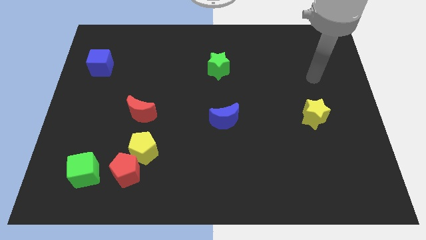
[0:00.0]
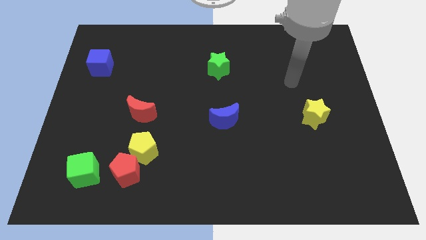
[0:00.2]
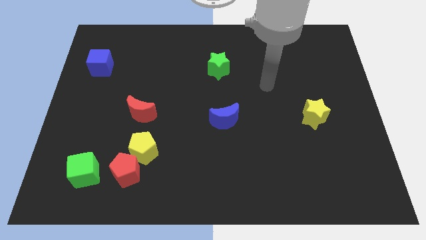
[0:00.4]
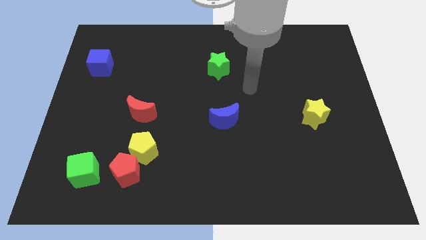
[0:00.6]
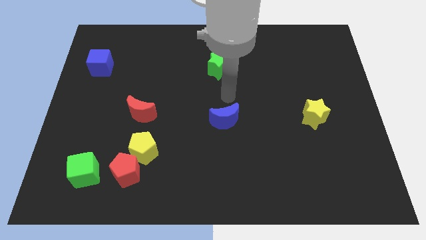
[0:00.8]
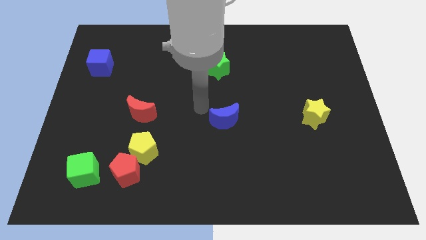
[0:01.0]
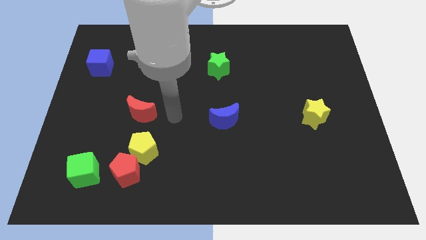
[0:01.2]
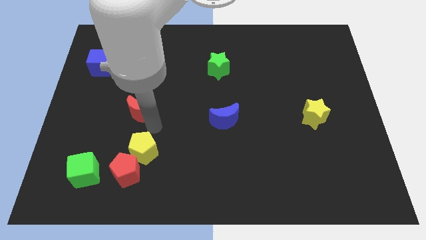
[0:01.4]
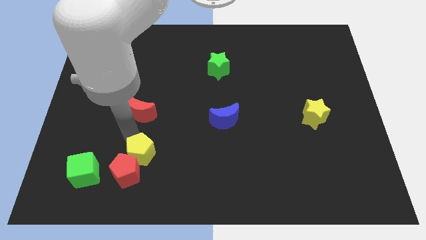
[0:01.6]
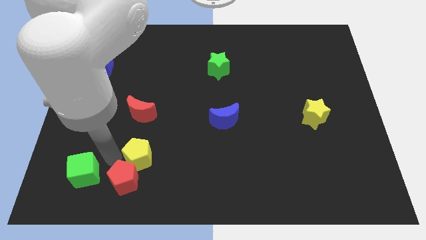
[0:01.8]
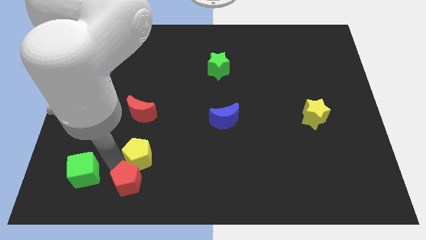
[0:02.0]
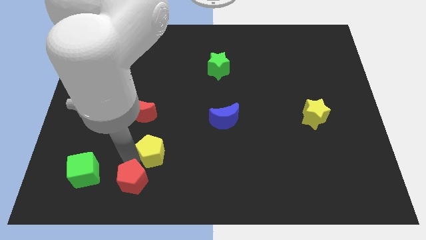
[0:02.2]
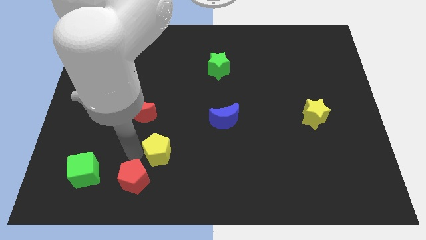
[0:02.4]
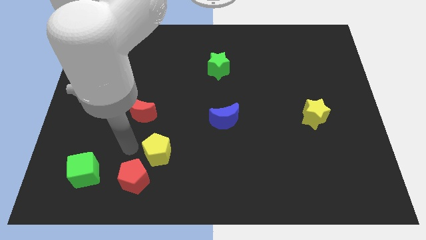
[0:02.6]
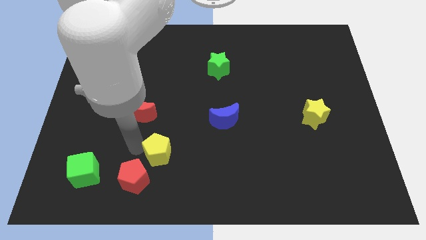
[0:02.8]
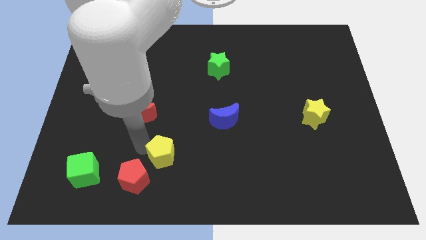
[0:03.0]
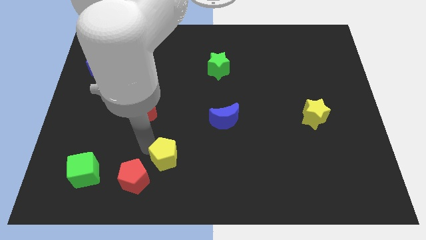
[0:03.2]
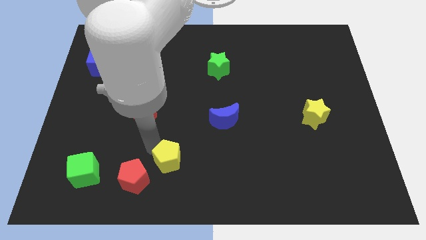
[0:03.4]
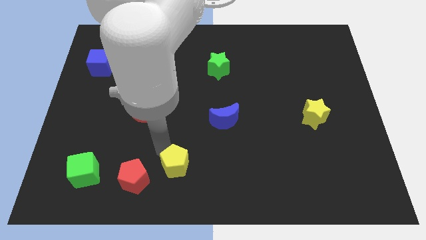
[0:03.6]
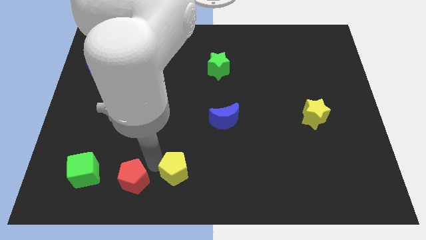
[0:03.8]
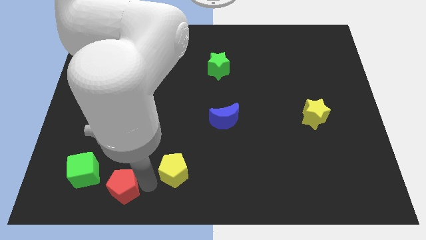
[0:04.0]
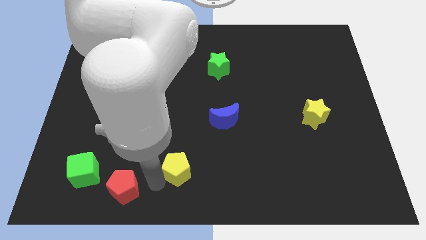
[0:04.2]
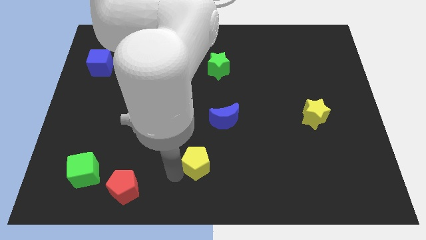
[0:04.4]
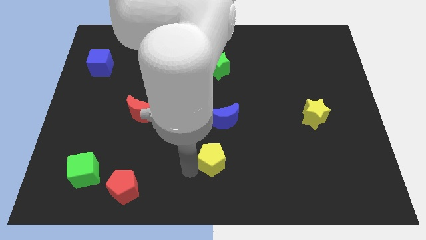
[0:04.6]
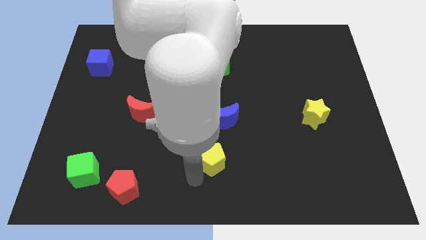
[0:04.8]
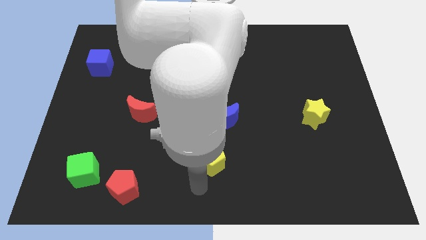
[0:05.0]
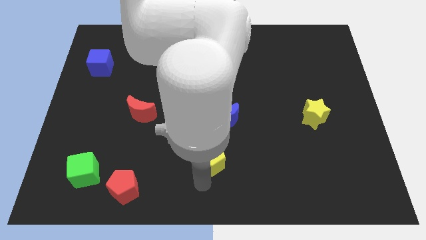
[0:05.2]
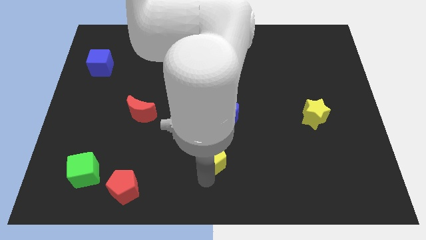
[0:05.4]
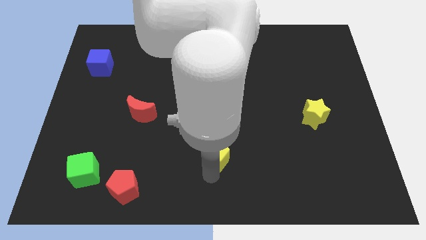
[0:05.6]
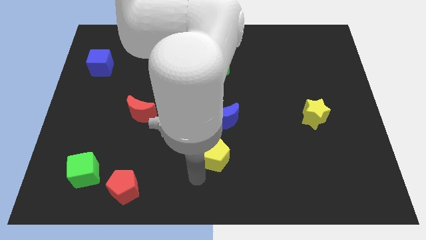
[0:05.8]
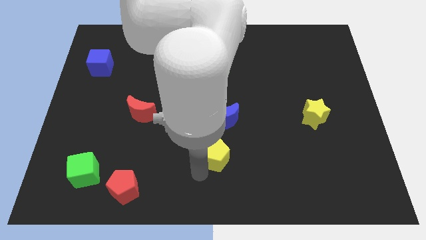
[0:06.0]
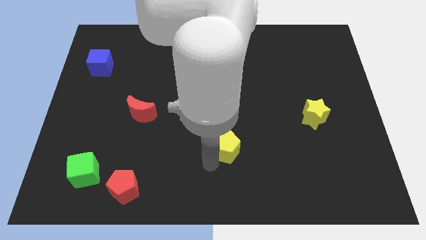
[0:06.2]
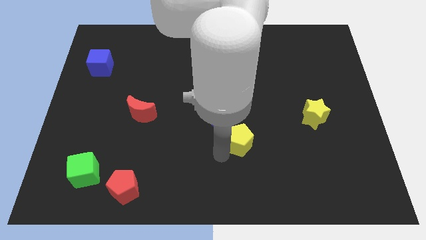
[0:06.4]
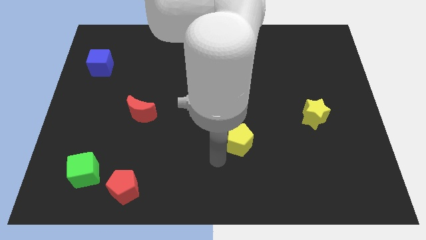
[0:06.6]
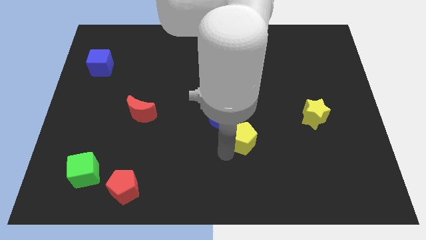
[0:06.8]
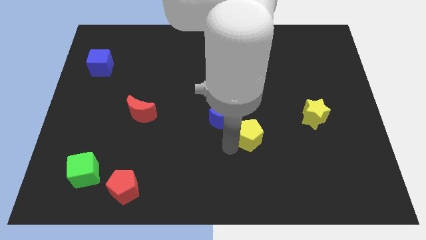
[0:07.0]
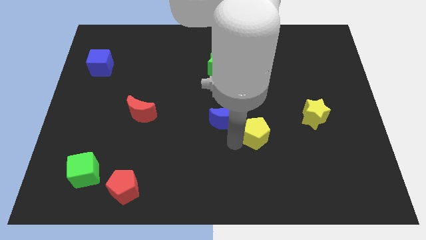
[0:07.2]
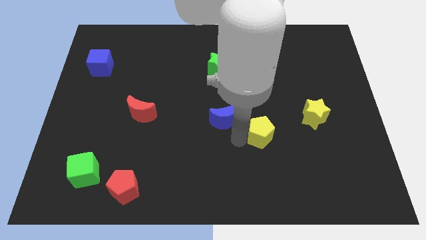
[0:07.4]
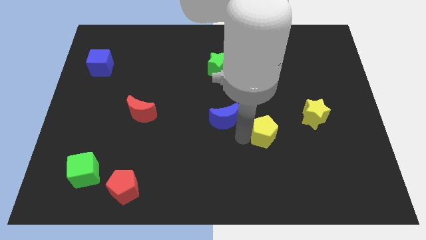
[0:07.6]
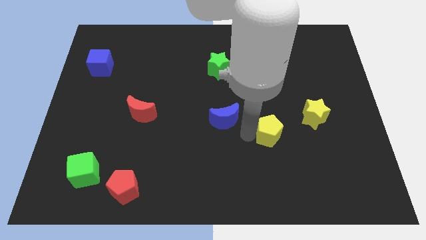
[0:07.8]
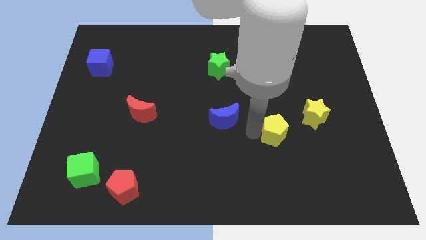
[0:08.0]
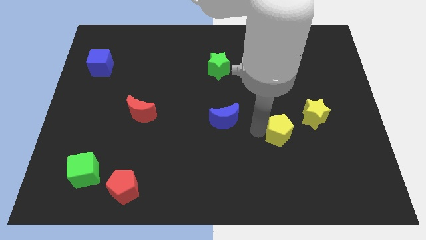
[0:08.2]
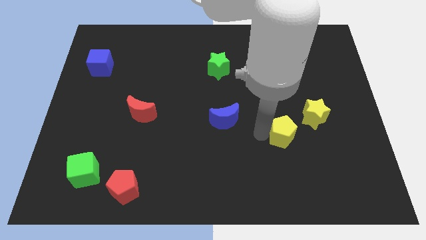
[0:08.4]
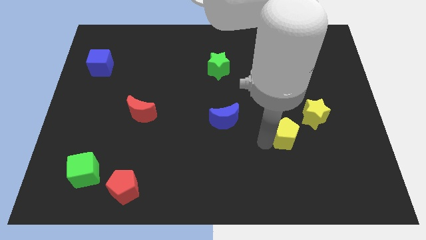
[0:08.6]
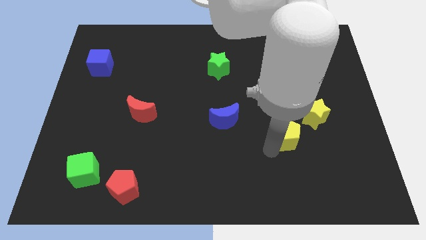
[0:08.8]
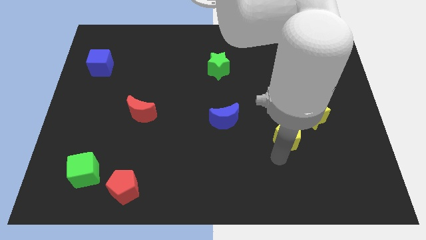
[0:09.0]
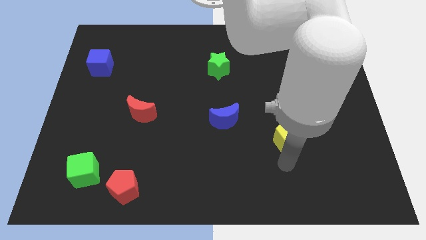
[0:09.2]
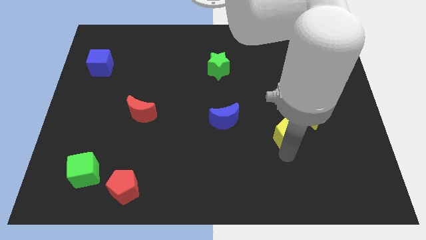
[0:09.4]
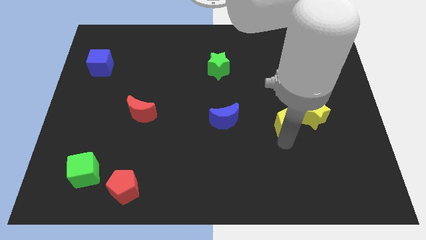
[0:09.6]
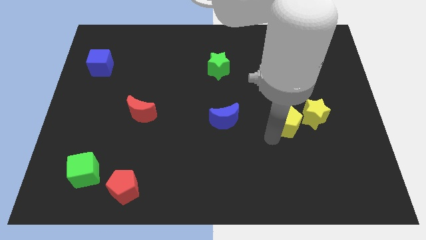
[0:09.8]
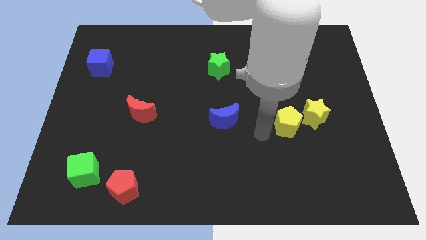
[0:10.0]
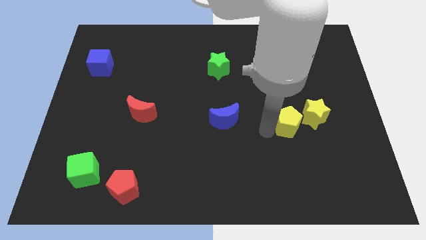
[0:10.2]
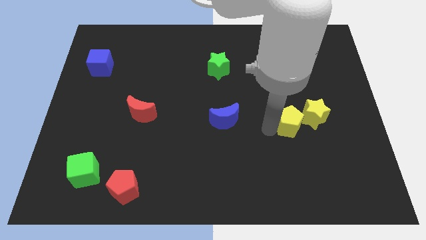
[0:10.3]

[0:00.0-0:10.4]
move the yellow pentagon to the yellow star

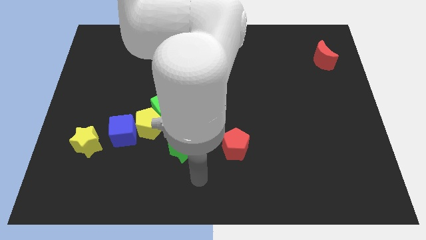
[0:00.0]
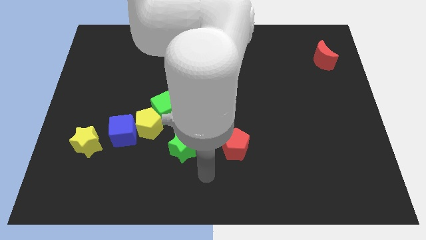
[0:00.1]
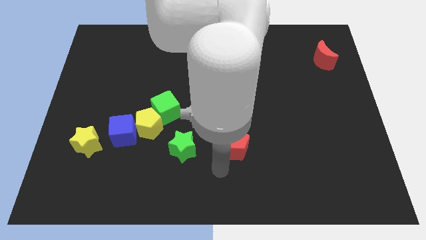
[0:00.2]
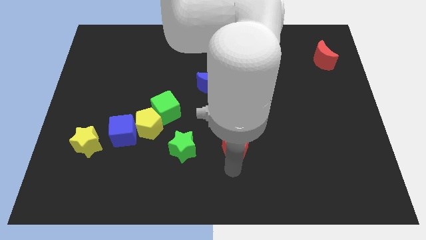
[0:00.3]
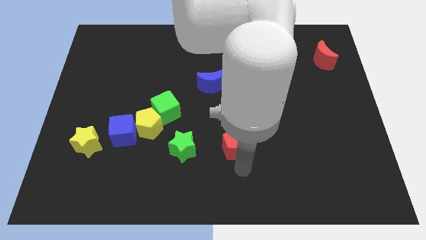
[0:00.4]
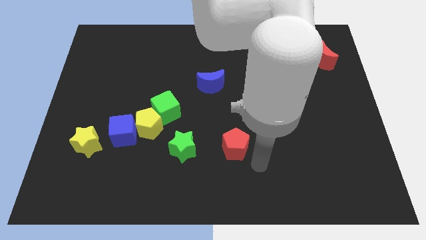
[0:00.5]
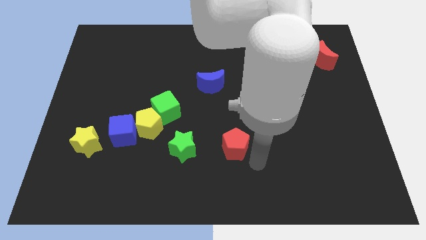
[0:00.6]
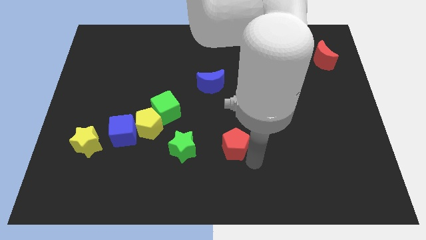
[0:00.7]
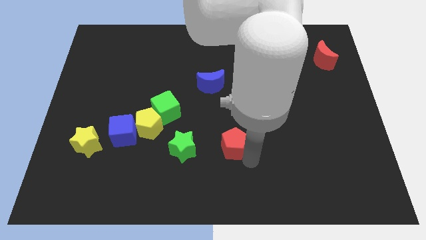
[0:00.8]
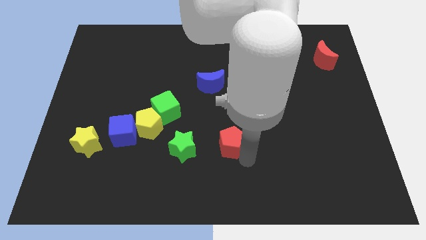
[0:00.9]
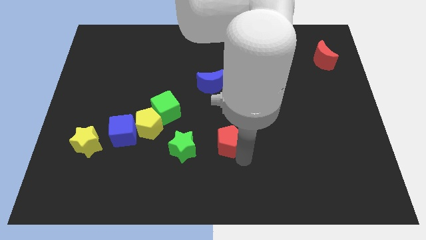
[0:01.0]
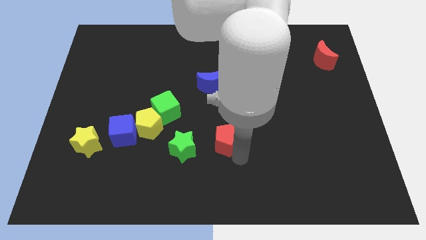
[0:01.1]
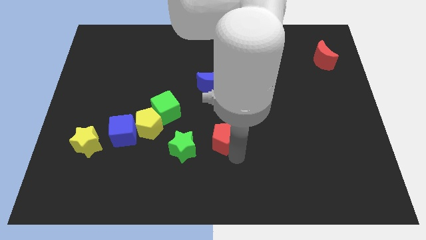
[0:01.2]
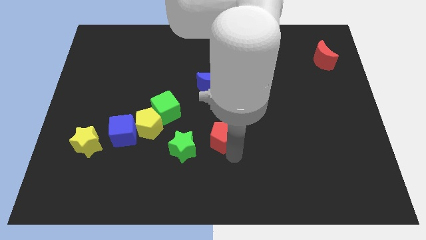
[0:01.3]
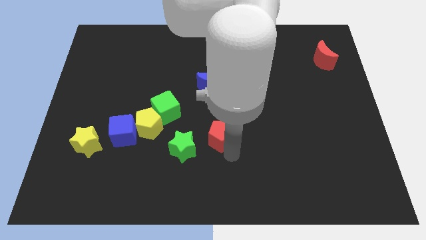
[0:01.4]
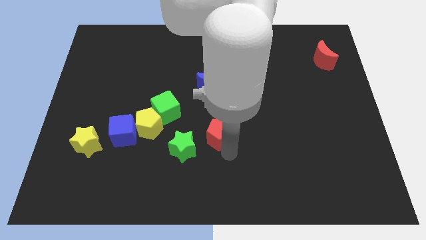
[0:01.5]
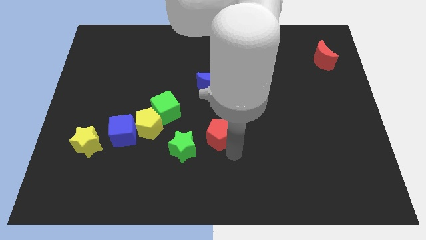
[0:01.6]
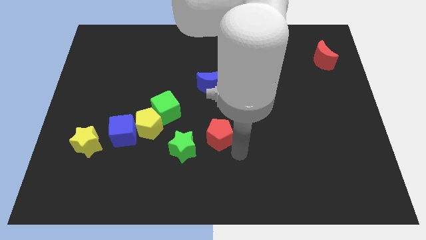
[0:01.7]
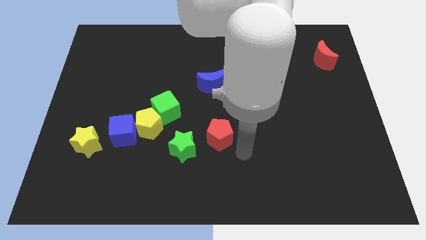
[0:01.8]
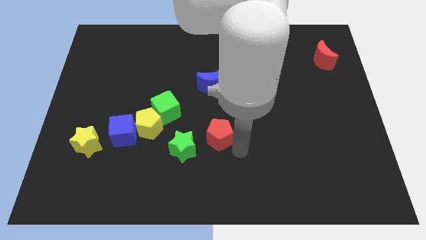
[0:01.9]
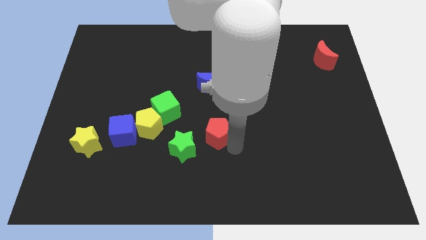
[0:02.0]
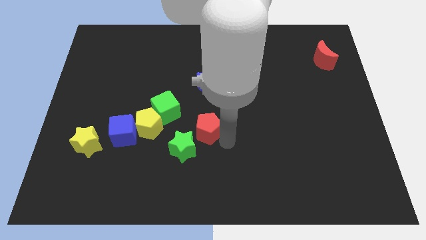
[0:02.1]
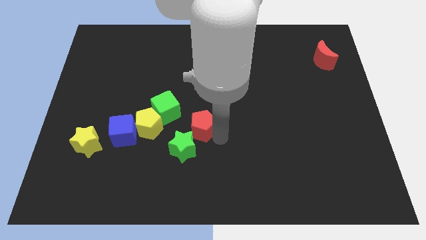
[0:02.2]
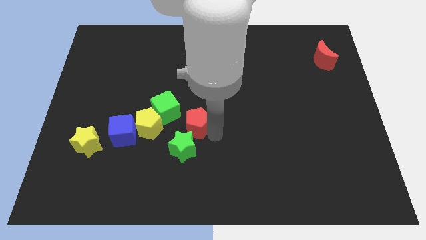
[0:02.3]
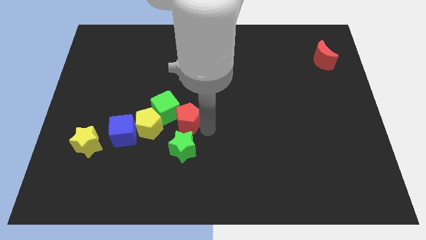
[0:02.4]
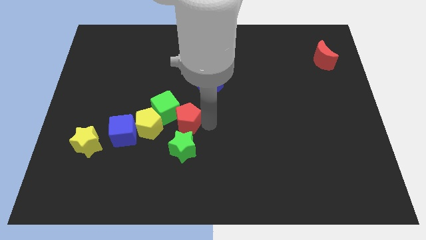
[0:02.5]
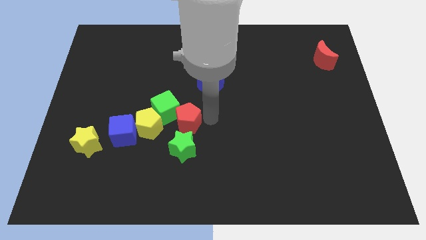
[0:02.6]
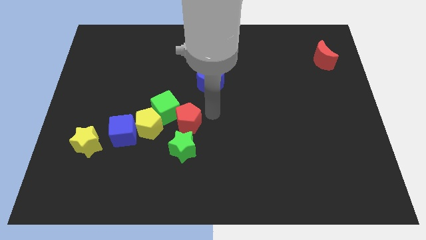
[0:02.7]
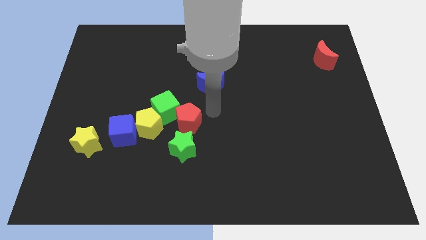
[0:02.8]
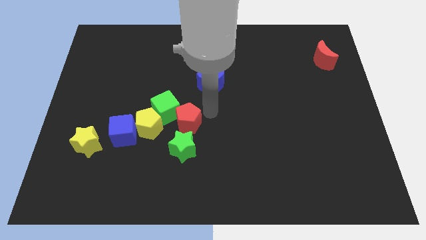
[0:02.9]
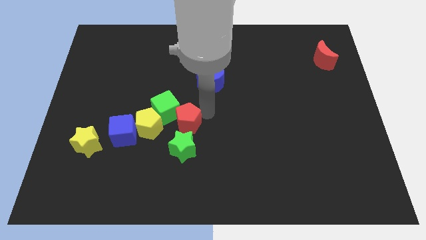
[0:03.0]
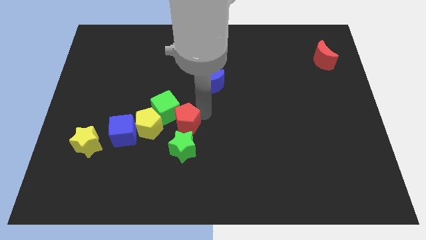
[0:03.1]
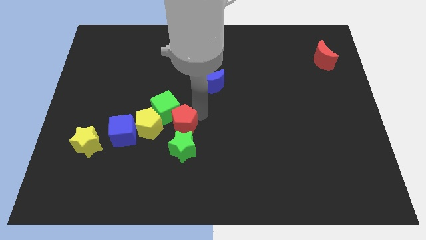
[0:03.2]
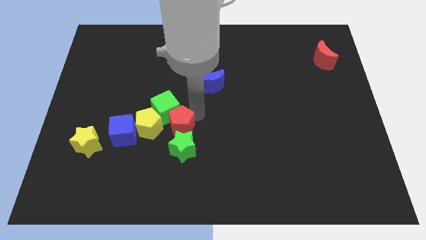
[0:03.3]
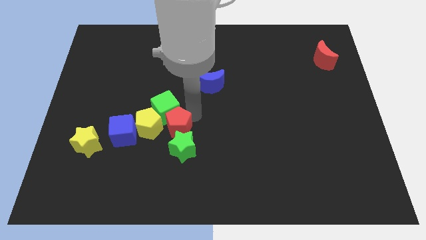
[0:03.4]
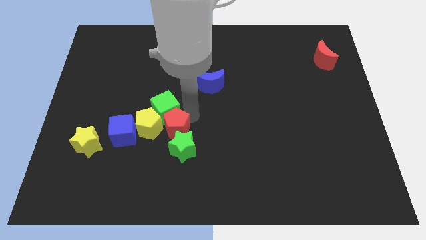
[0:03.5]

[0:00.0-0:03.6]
move the red pentagon close to the yellow pentagon
